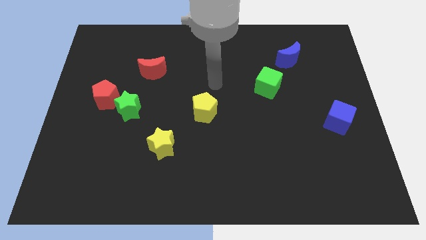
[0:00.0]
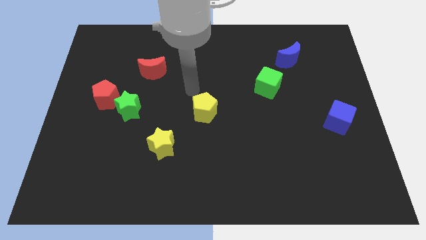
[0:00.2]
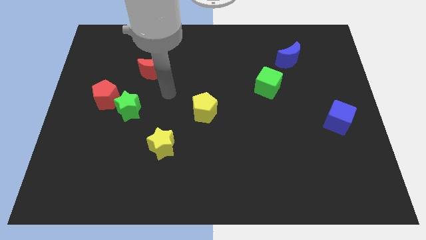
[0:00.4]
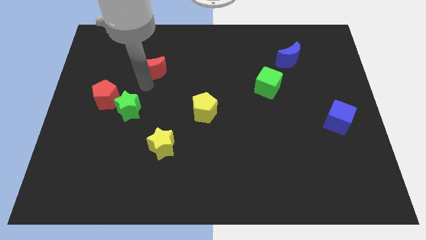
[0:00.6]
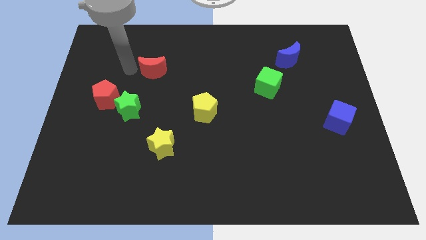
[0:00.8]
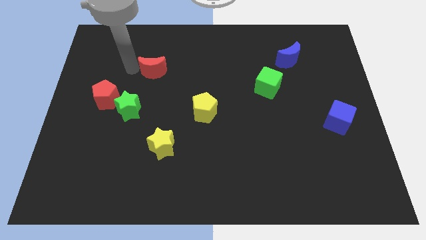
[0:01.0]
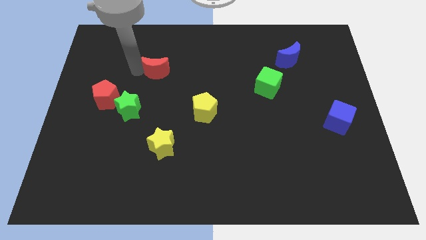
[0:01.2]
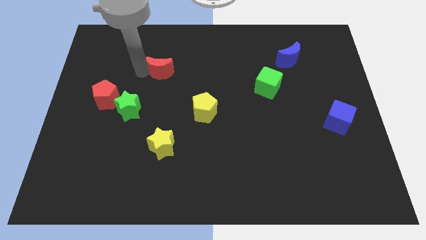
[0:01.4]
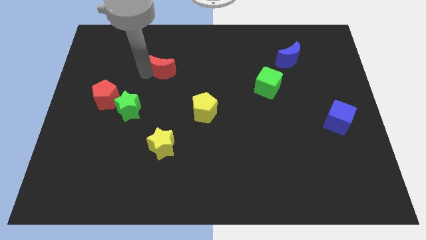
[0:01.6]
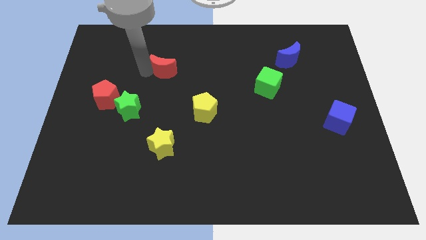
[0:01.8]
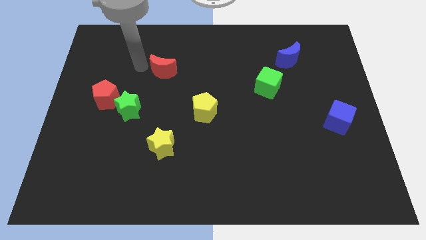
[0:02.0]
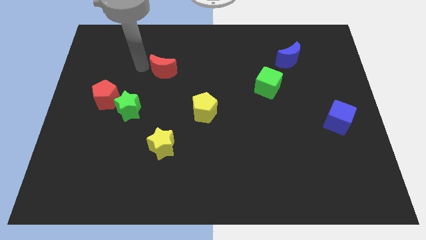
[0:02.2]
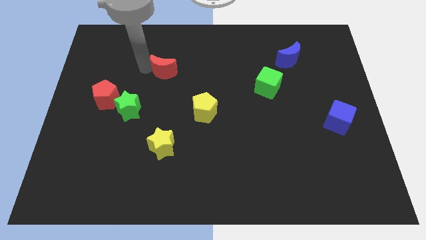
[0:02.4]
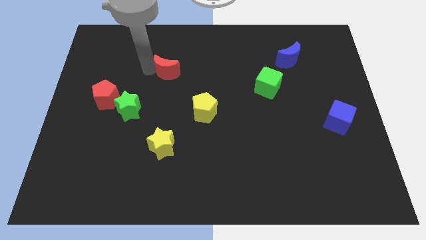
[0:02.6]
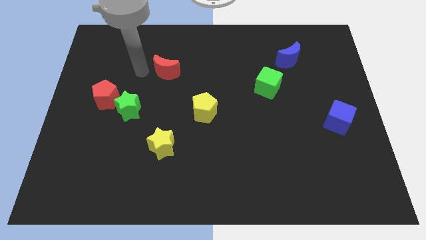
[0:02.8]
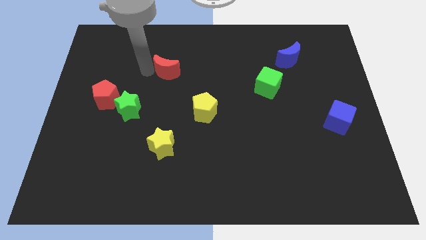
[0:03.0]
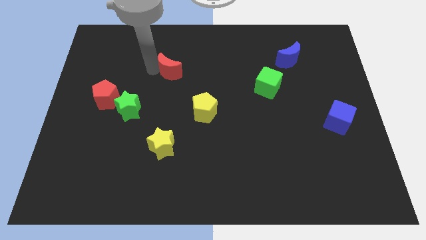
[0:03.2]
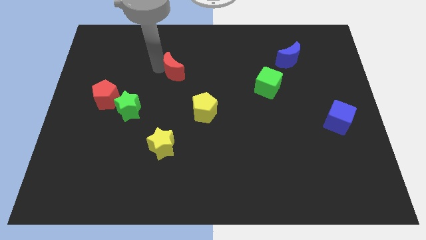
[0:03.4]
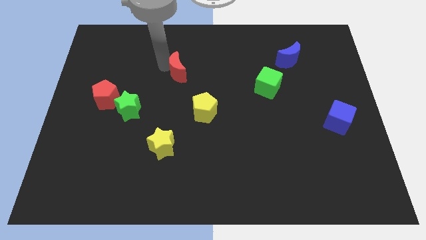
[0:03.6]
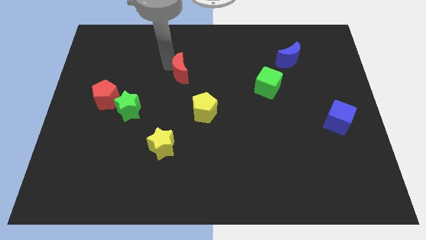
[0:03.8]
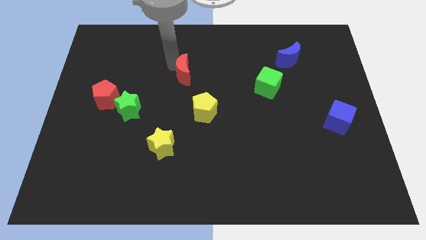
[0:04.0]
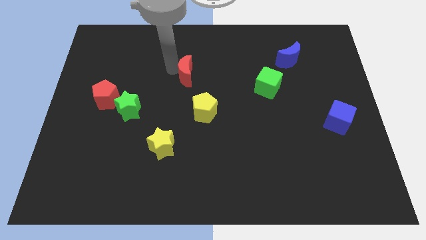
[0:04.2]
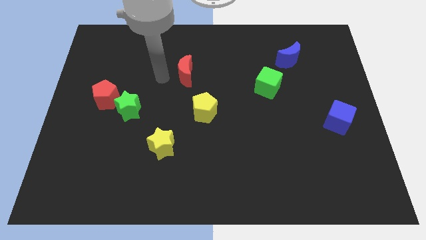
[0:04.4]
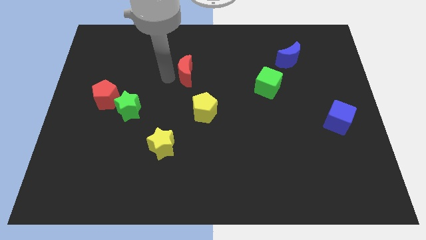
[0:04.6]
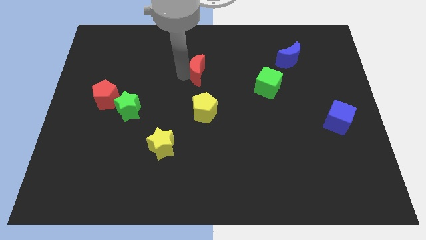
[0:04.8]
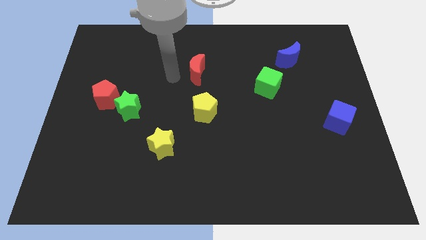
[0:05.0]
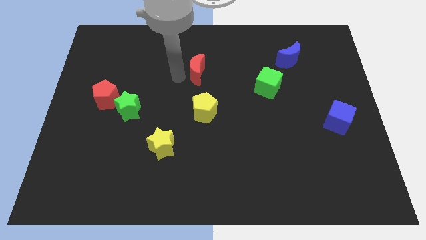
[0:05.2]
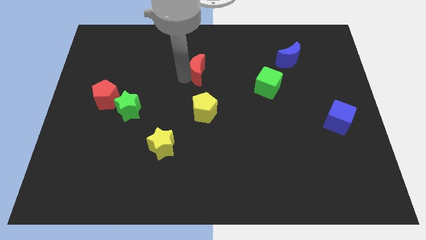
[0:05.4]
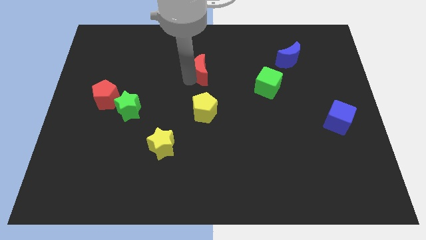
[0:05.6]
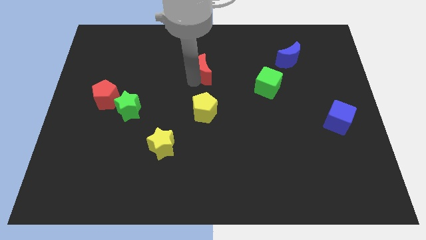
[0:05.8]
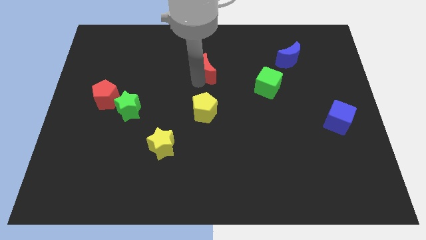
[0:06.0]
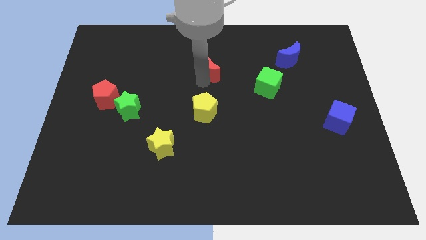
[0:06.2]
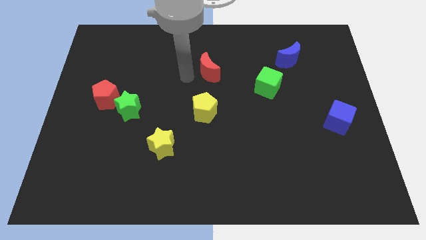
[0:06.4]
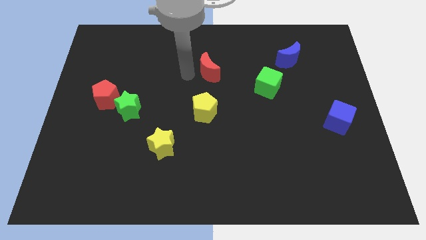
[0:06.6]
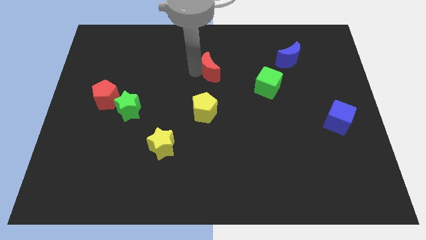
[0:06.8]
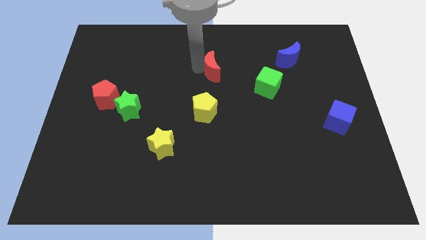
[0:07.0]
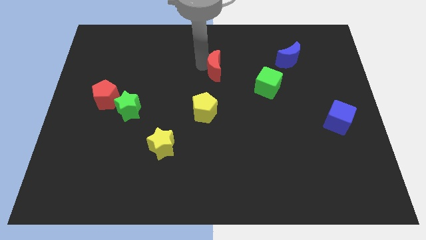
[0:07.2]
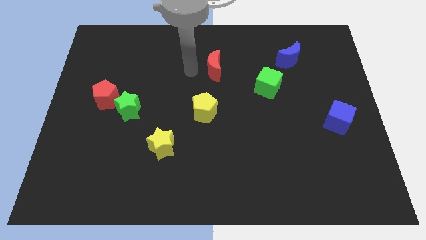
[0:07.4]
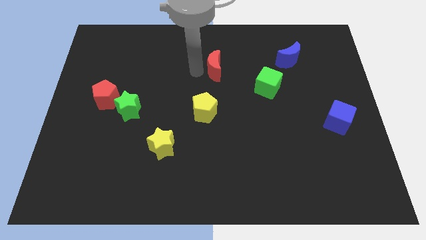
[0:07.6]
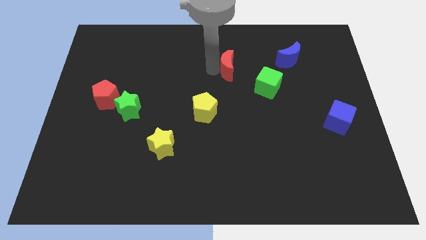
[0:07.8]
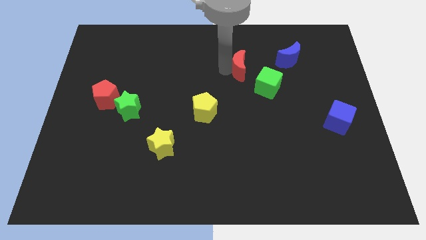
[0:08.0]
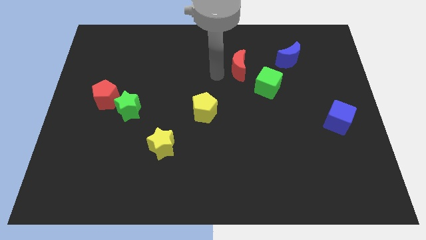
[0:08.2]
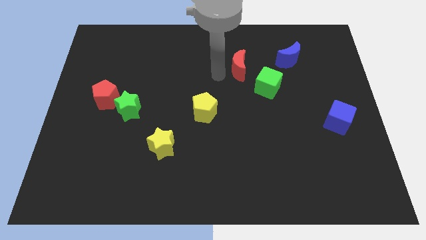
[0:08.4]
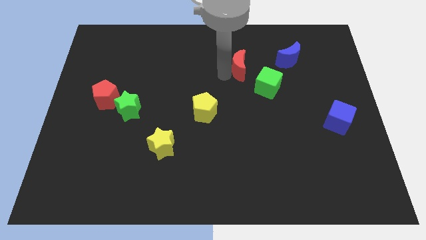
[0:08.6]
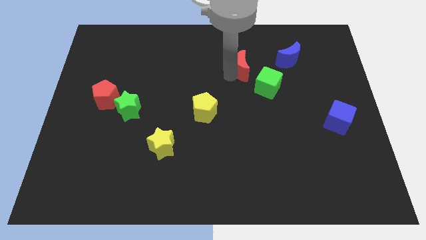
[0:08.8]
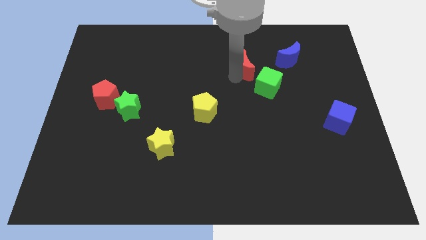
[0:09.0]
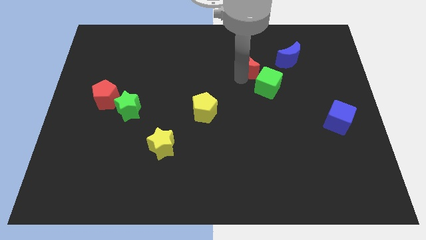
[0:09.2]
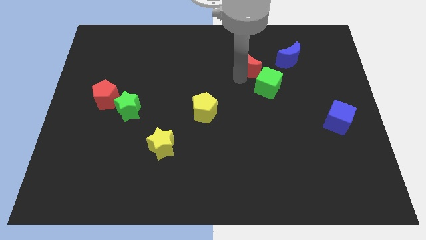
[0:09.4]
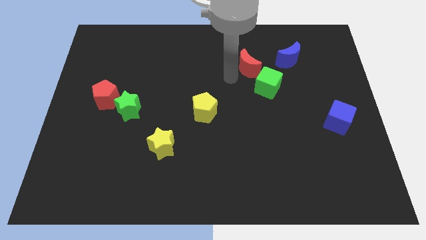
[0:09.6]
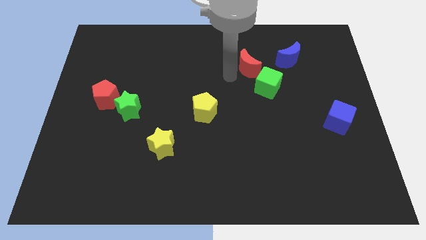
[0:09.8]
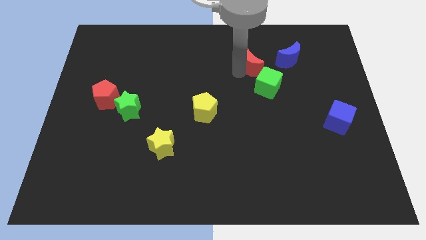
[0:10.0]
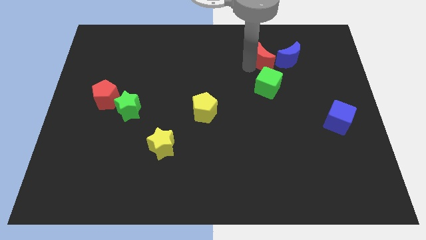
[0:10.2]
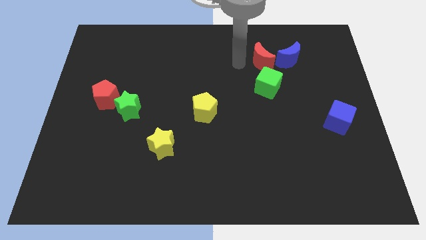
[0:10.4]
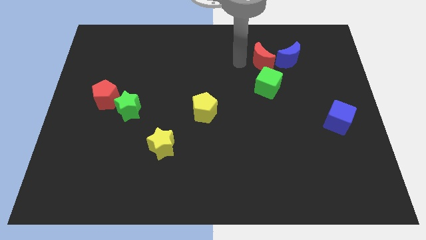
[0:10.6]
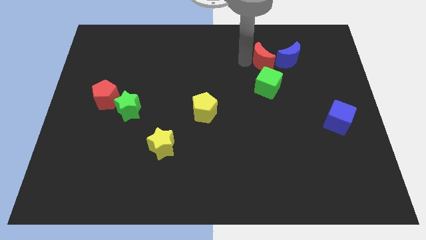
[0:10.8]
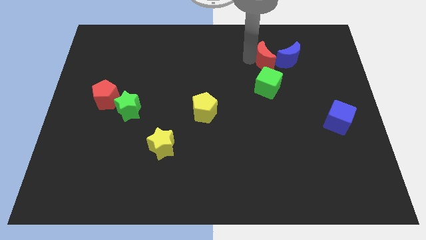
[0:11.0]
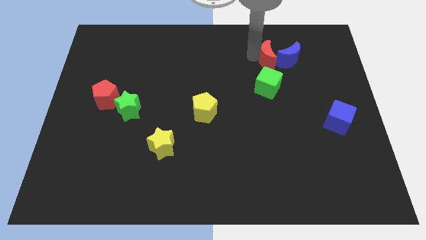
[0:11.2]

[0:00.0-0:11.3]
slide the red moon next to the blue moon
